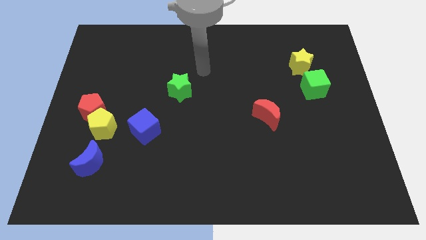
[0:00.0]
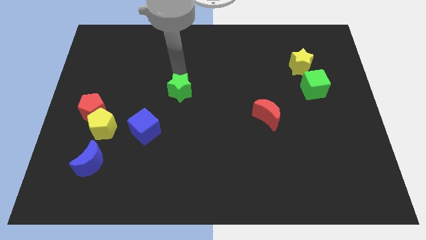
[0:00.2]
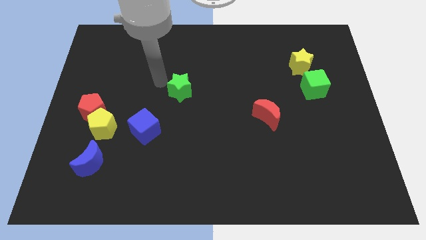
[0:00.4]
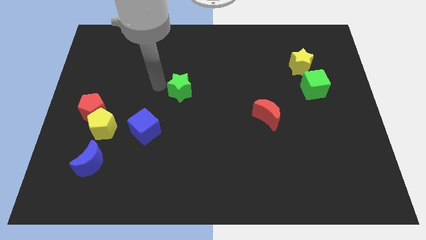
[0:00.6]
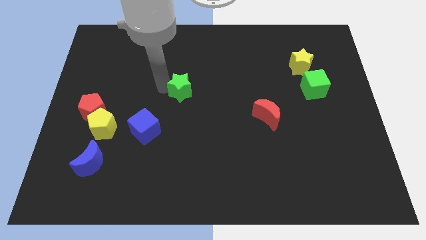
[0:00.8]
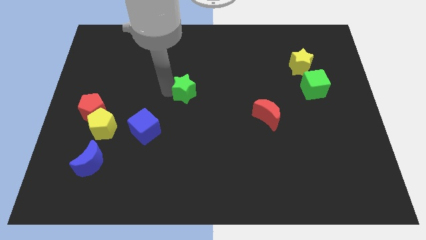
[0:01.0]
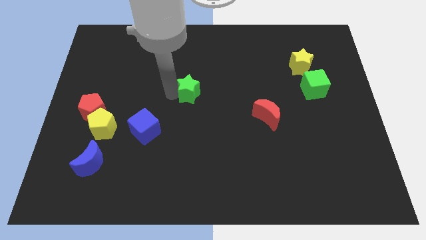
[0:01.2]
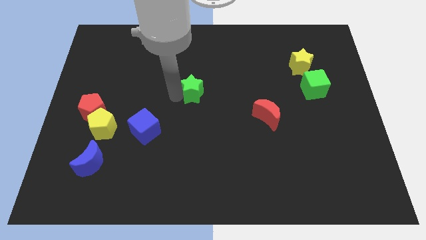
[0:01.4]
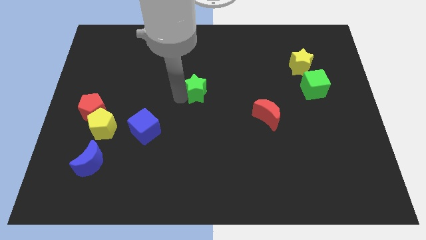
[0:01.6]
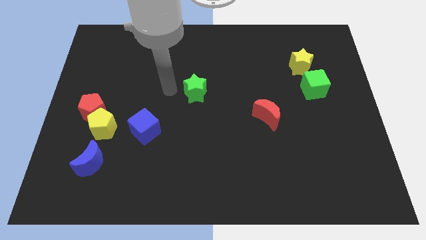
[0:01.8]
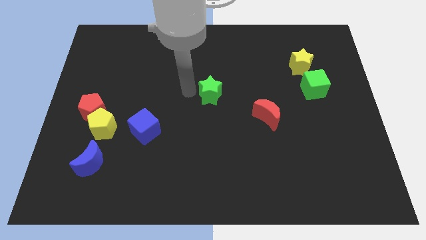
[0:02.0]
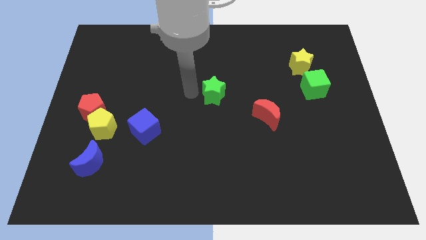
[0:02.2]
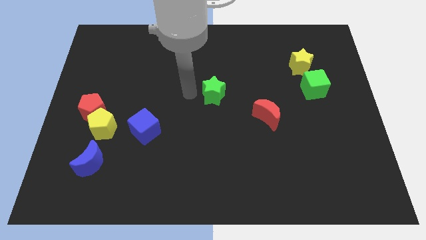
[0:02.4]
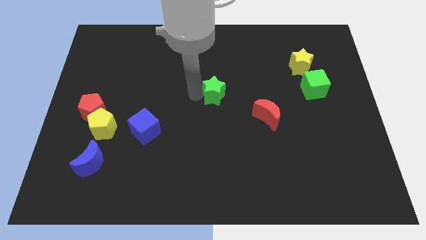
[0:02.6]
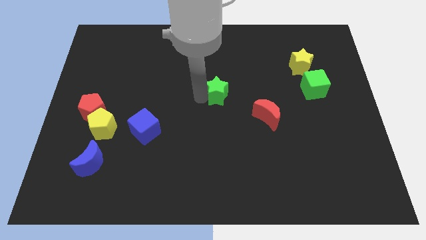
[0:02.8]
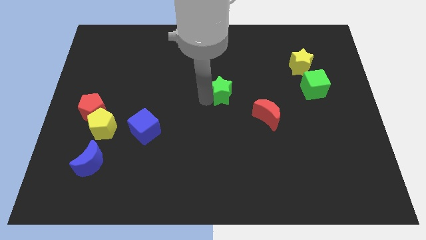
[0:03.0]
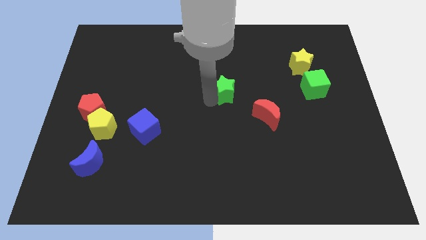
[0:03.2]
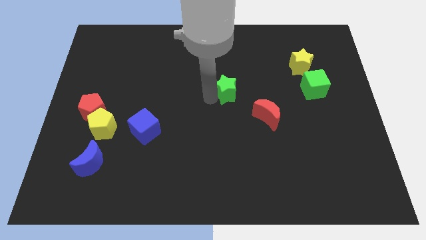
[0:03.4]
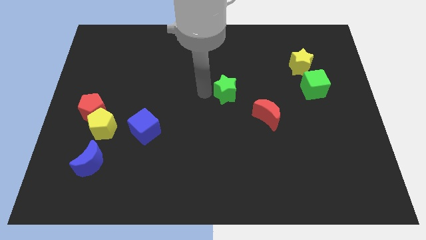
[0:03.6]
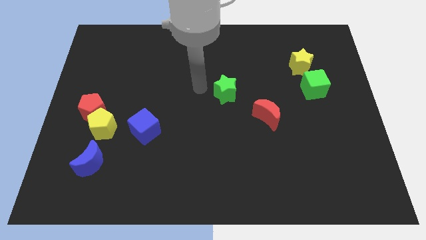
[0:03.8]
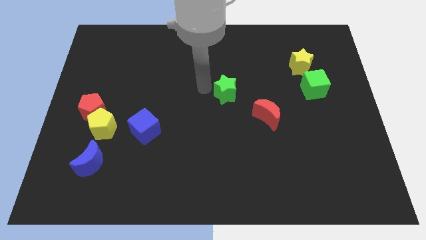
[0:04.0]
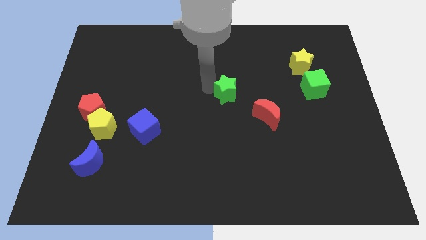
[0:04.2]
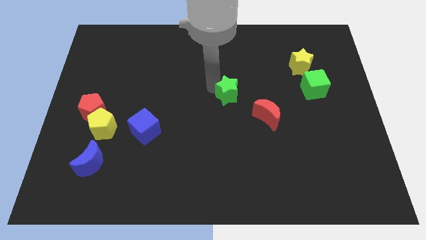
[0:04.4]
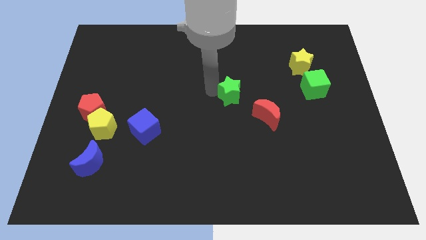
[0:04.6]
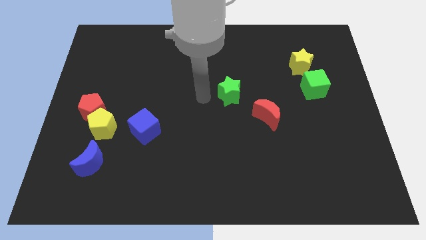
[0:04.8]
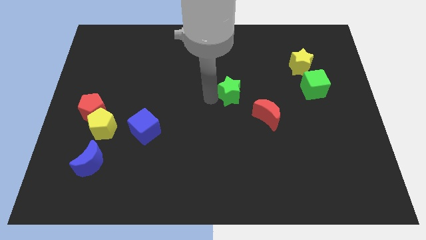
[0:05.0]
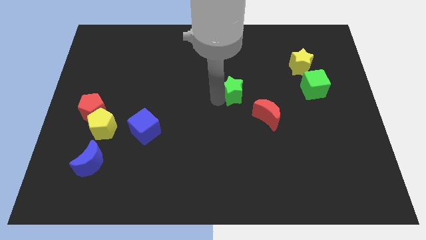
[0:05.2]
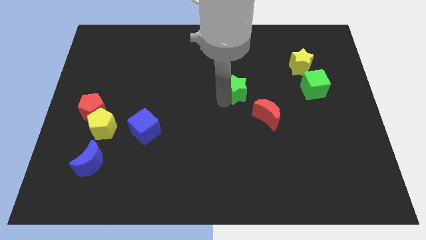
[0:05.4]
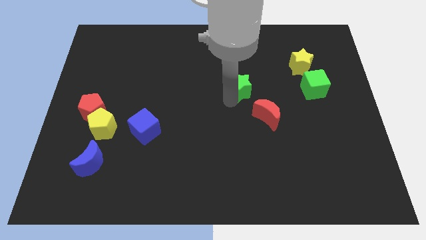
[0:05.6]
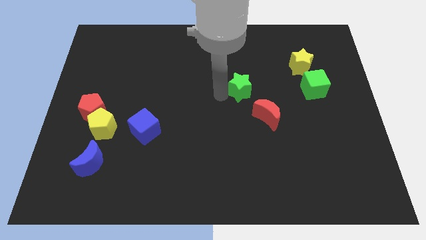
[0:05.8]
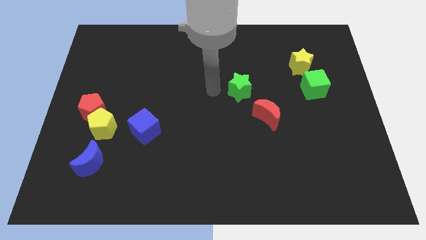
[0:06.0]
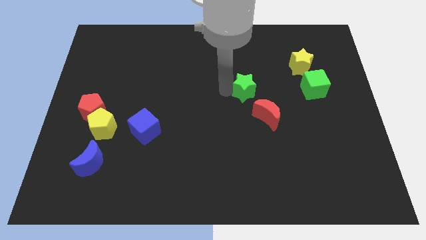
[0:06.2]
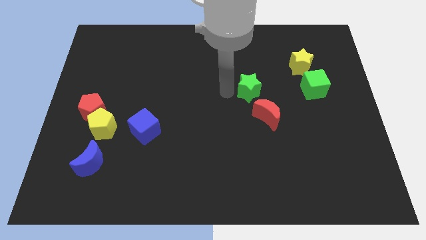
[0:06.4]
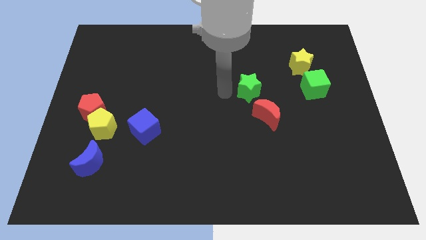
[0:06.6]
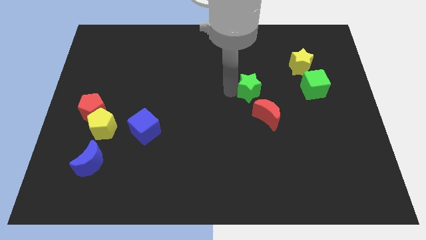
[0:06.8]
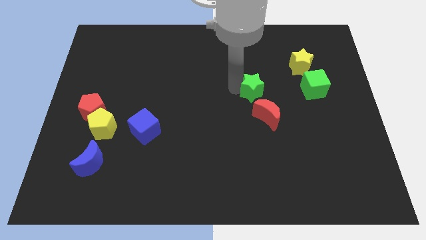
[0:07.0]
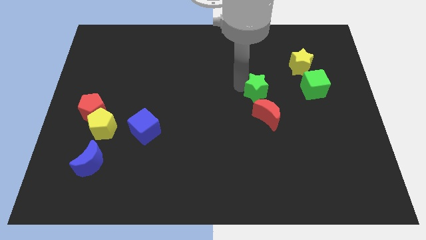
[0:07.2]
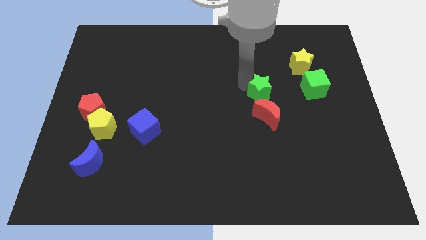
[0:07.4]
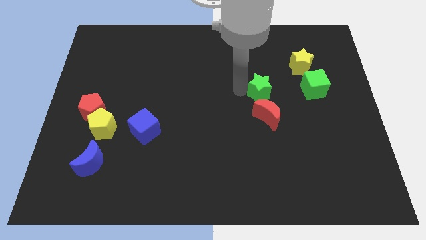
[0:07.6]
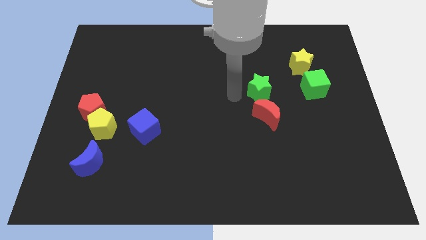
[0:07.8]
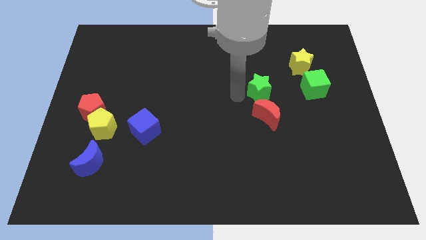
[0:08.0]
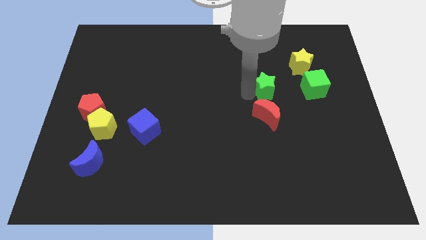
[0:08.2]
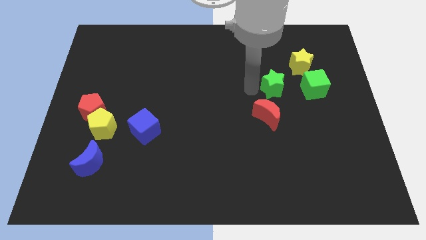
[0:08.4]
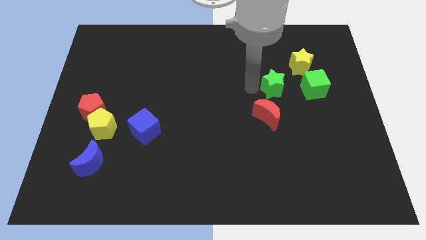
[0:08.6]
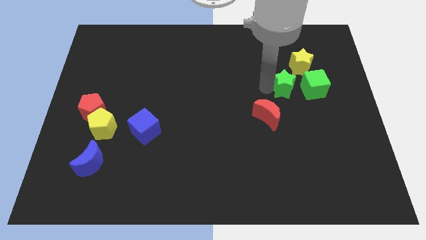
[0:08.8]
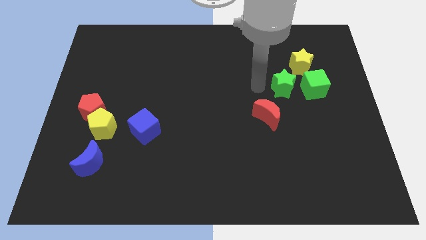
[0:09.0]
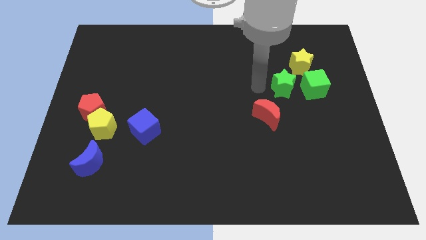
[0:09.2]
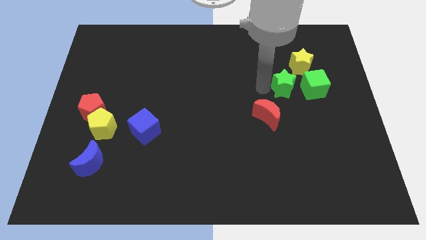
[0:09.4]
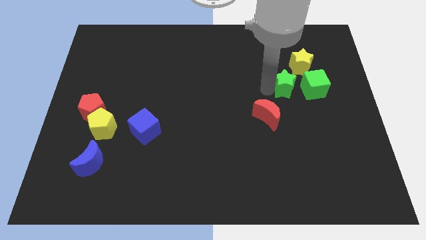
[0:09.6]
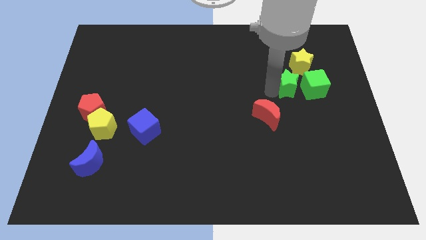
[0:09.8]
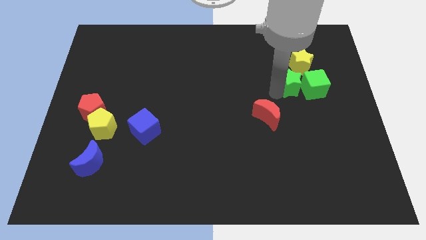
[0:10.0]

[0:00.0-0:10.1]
push the green star next to the green cube
